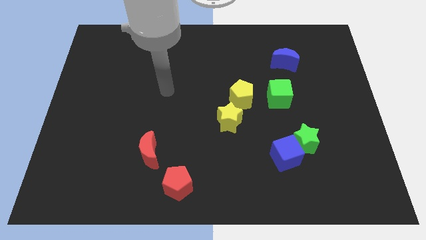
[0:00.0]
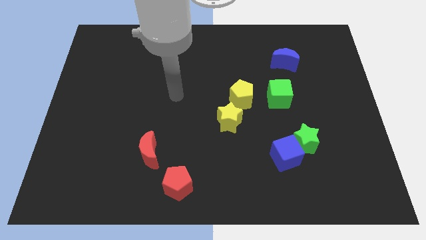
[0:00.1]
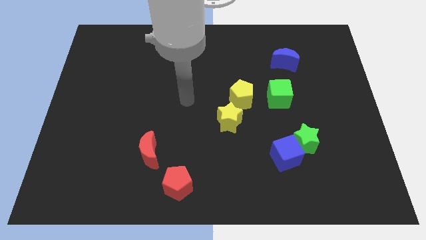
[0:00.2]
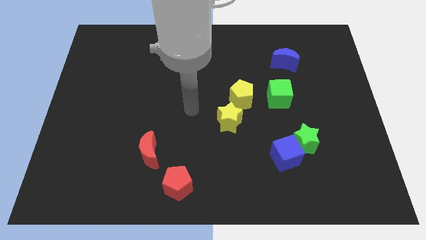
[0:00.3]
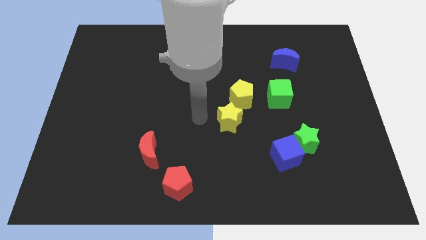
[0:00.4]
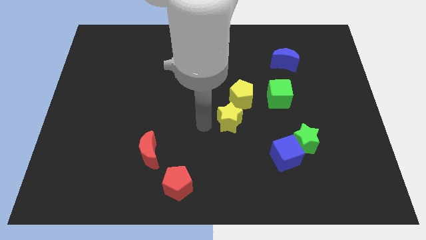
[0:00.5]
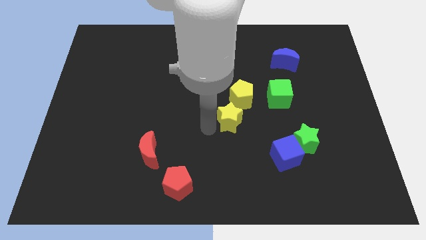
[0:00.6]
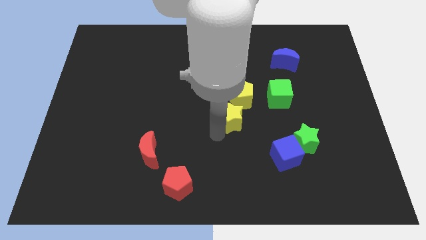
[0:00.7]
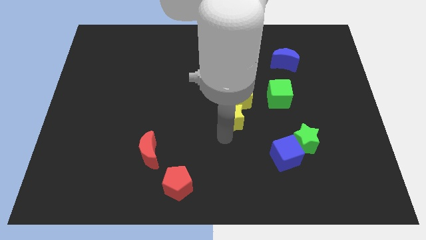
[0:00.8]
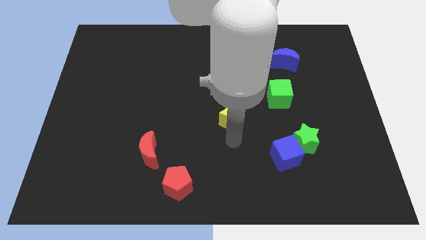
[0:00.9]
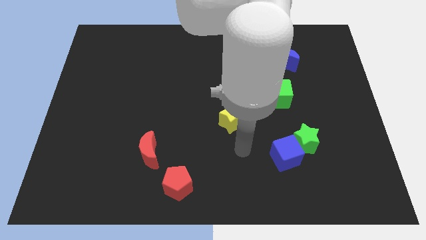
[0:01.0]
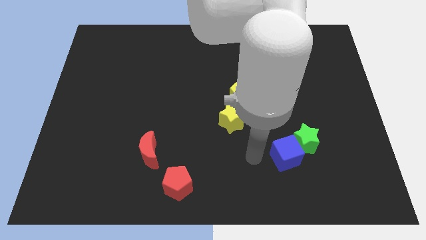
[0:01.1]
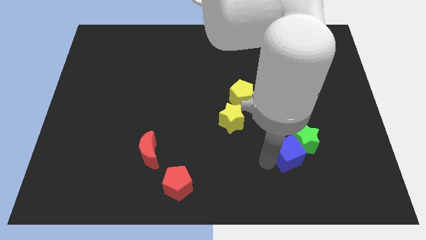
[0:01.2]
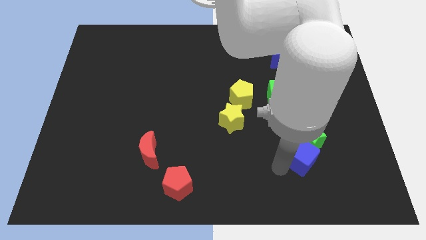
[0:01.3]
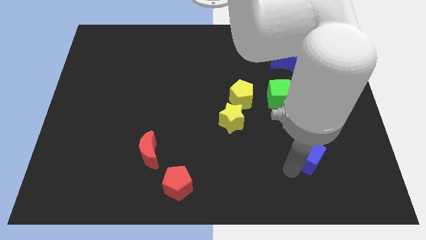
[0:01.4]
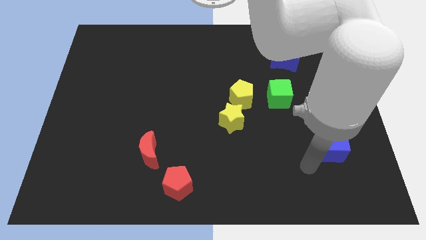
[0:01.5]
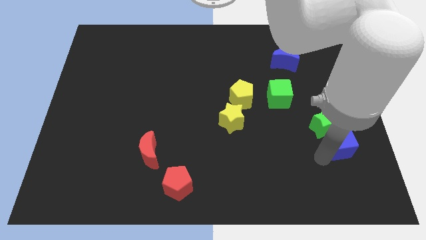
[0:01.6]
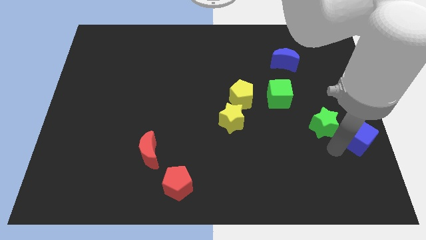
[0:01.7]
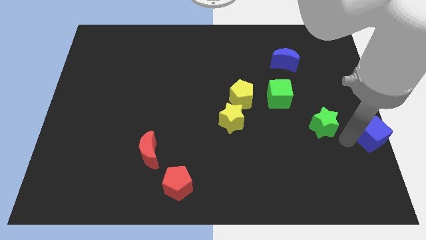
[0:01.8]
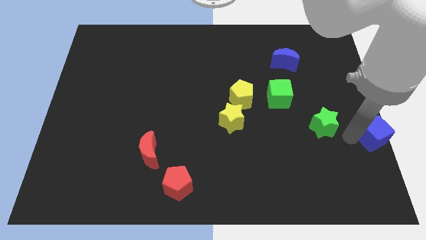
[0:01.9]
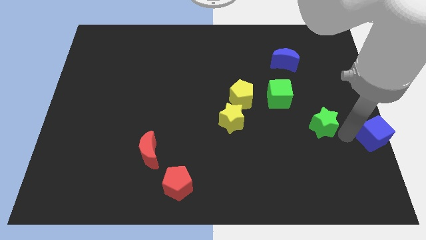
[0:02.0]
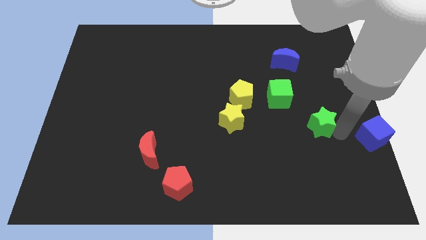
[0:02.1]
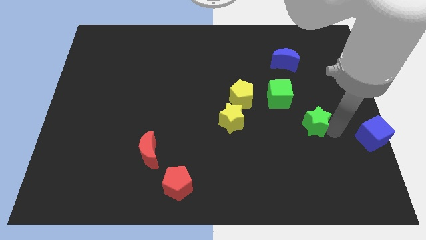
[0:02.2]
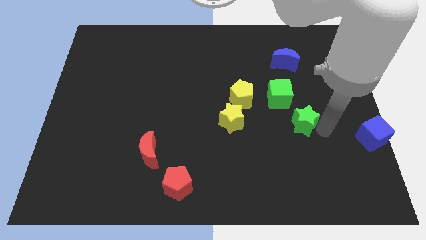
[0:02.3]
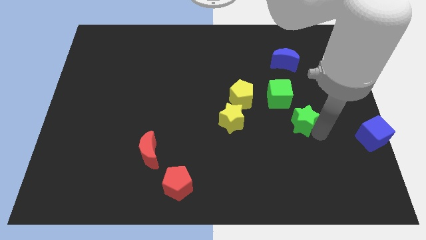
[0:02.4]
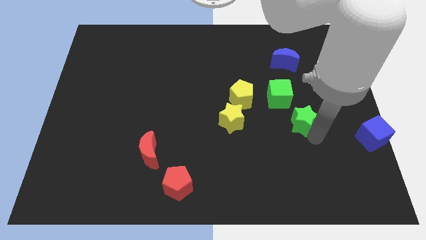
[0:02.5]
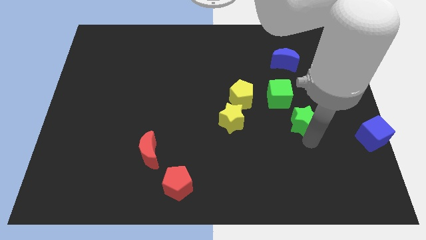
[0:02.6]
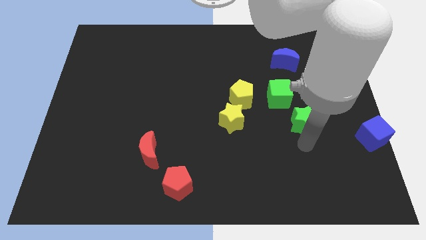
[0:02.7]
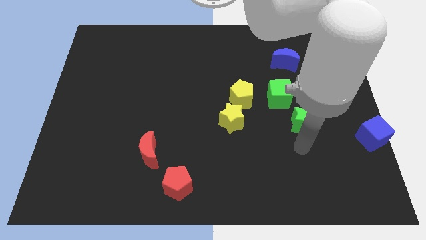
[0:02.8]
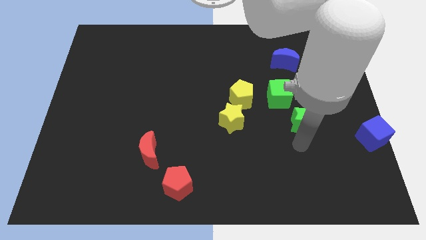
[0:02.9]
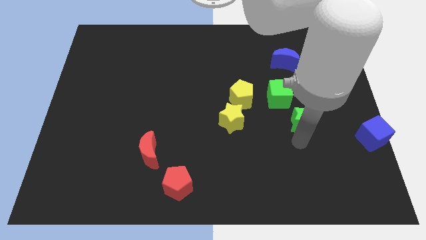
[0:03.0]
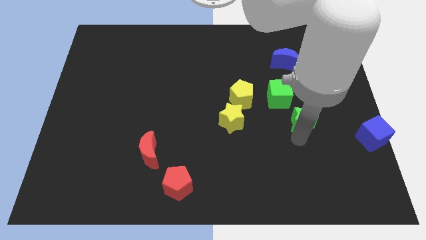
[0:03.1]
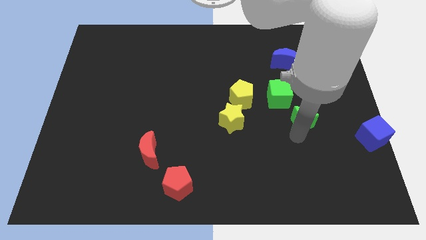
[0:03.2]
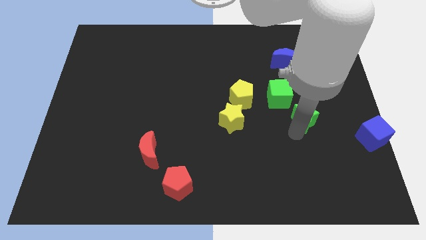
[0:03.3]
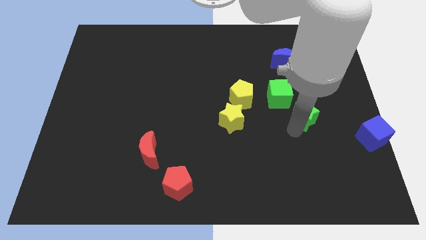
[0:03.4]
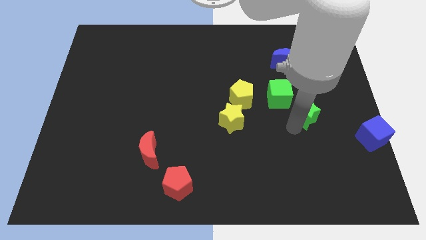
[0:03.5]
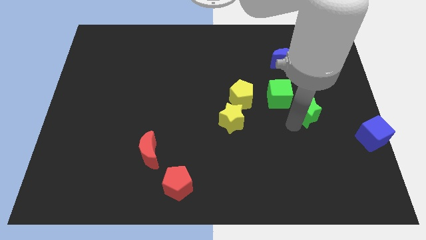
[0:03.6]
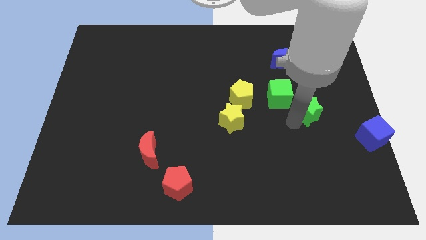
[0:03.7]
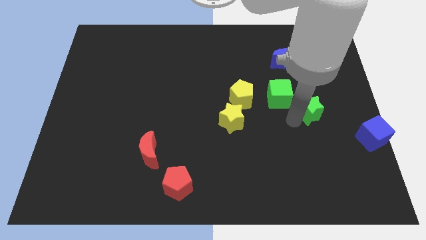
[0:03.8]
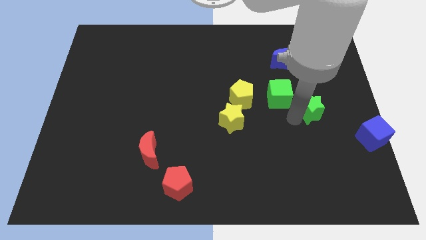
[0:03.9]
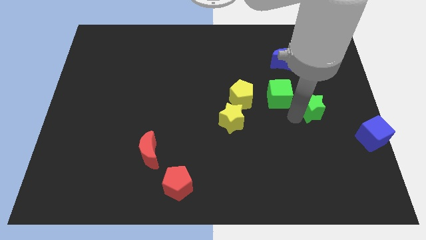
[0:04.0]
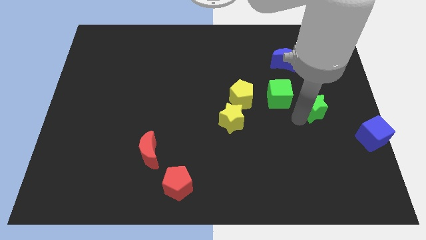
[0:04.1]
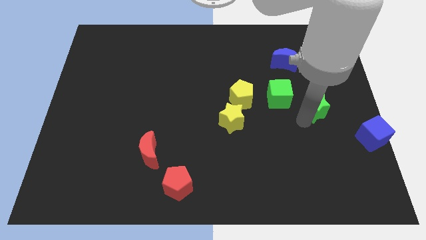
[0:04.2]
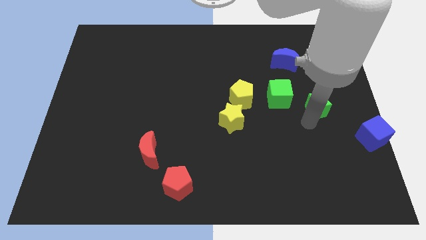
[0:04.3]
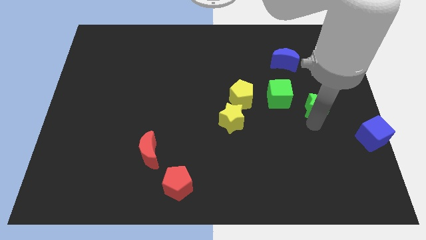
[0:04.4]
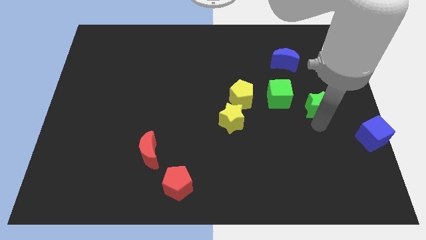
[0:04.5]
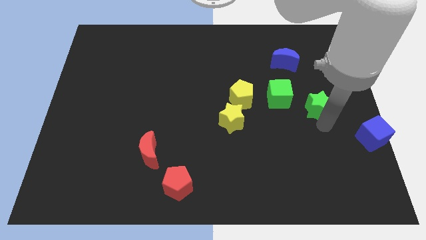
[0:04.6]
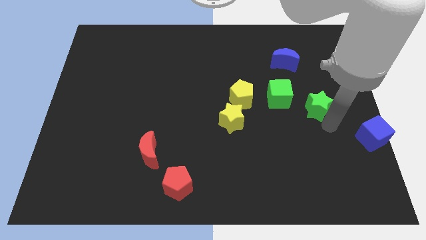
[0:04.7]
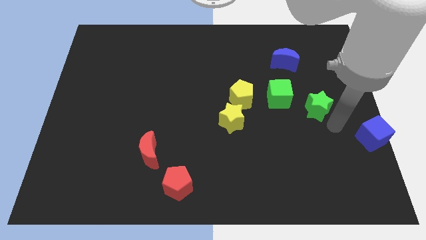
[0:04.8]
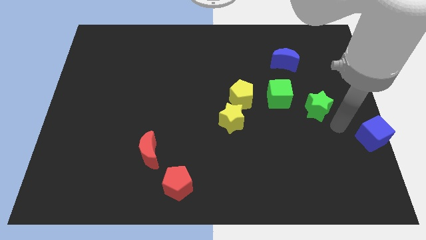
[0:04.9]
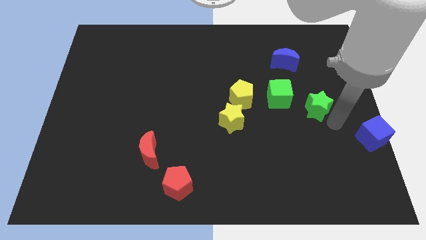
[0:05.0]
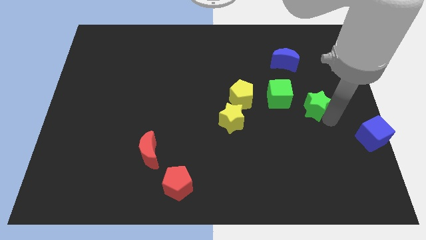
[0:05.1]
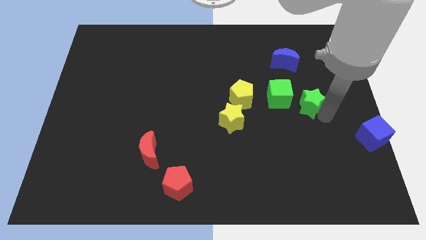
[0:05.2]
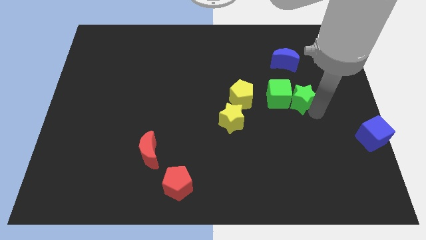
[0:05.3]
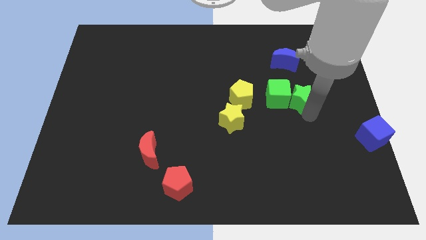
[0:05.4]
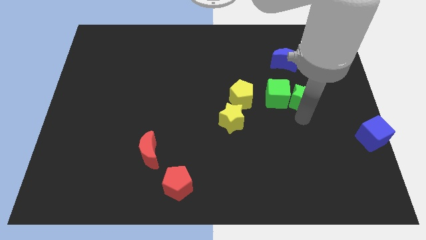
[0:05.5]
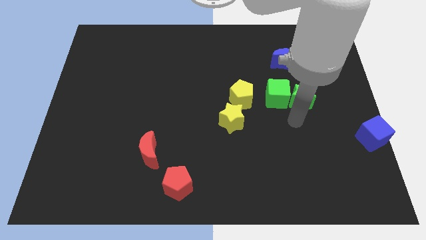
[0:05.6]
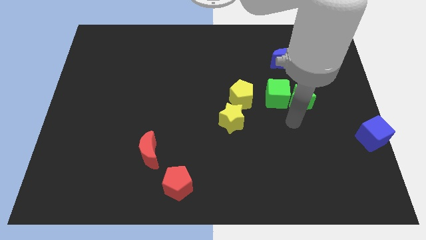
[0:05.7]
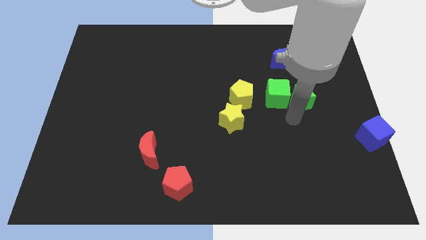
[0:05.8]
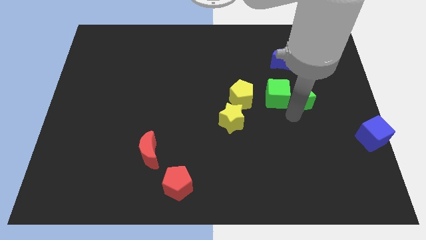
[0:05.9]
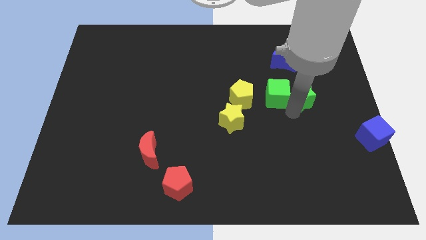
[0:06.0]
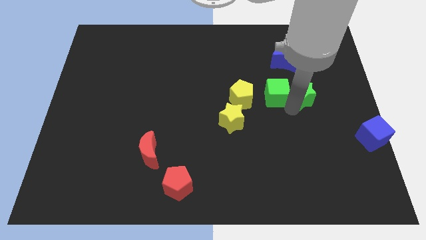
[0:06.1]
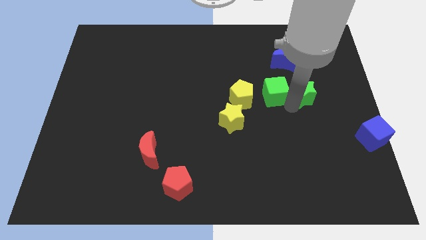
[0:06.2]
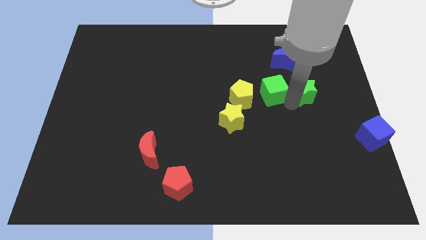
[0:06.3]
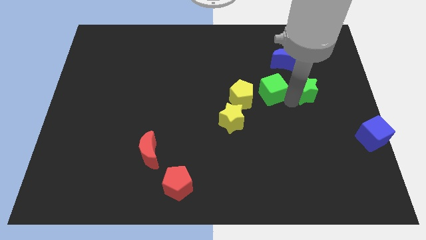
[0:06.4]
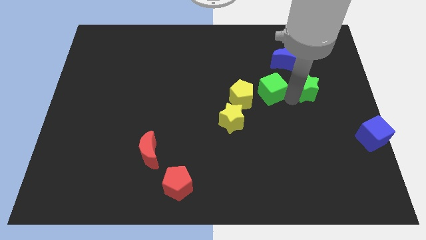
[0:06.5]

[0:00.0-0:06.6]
slide the green star diagonally down and to the right of the blue moon

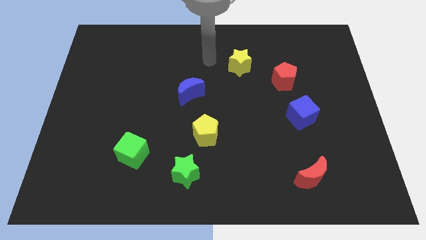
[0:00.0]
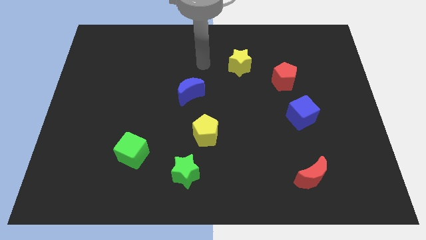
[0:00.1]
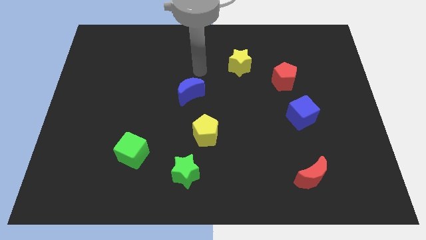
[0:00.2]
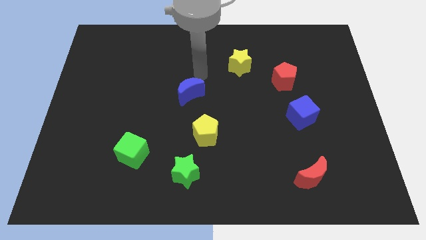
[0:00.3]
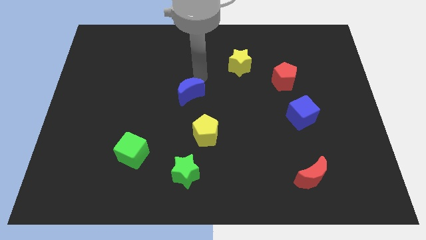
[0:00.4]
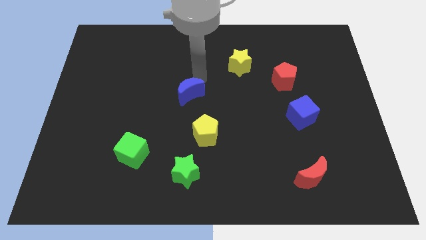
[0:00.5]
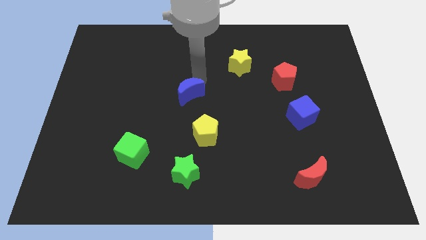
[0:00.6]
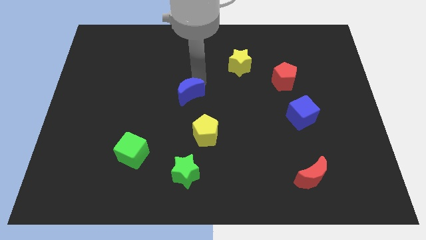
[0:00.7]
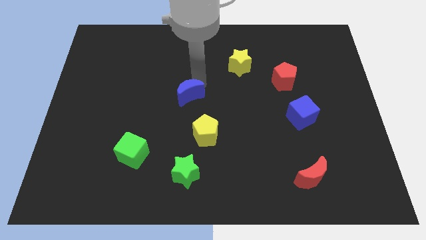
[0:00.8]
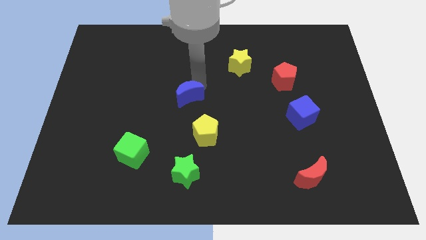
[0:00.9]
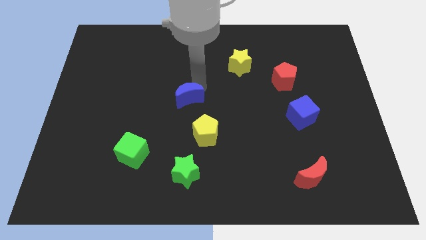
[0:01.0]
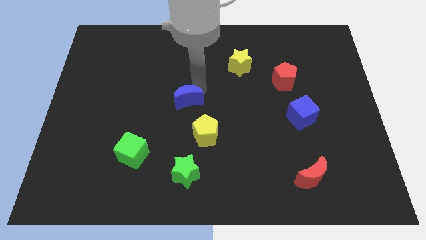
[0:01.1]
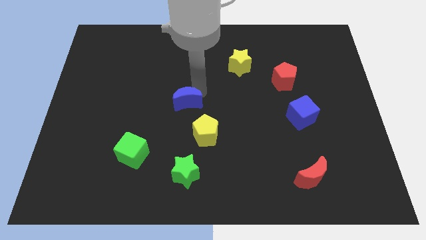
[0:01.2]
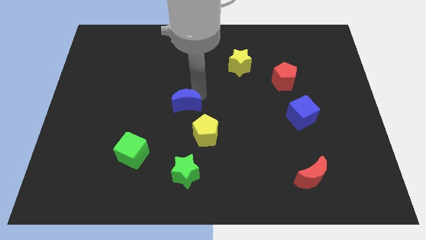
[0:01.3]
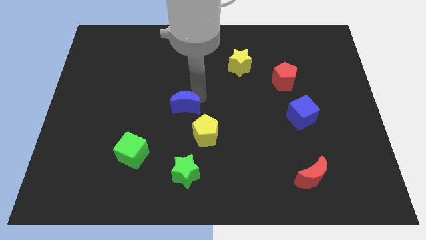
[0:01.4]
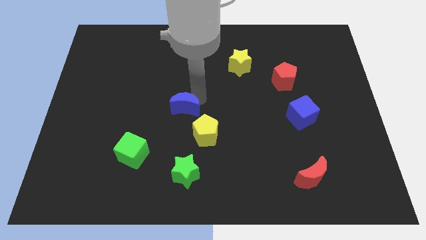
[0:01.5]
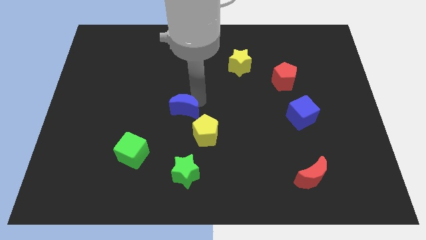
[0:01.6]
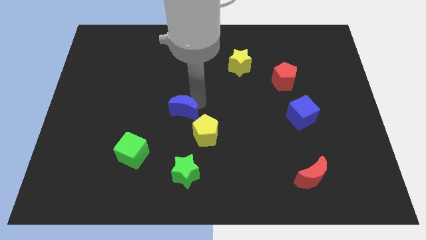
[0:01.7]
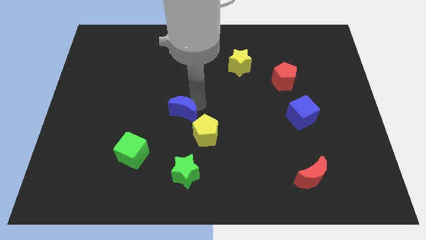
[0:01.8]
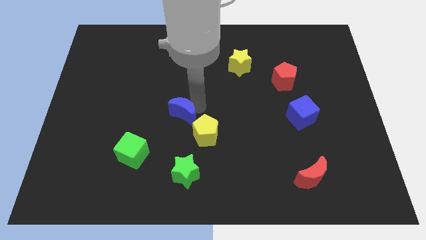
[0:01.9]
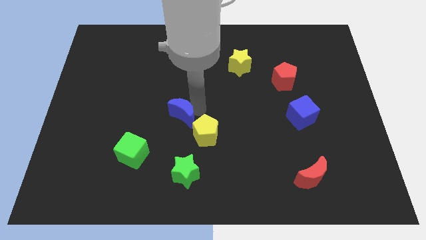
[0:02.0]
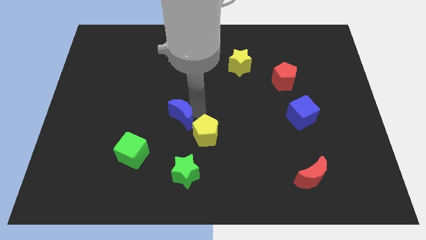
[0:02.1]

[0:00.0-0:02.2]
push the blue moon to the left side of the yellow pentagon
